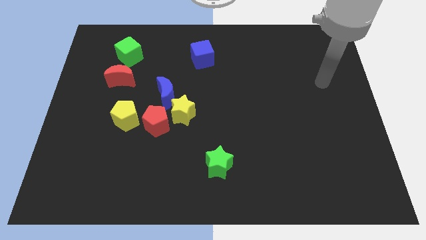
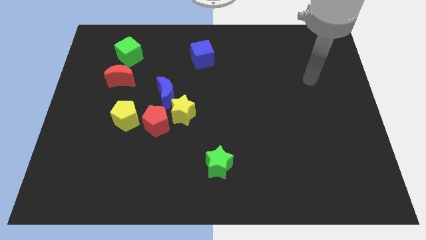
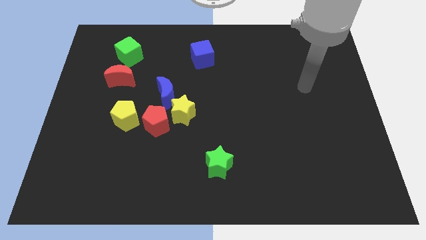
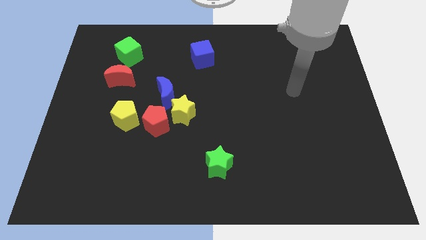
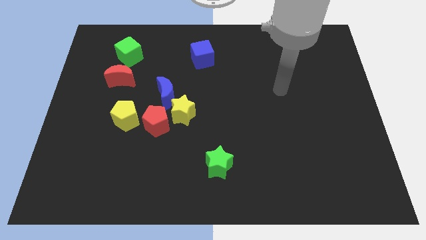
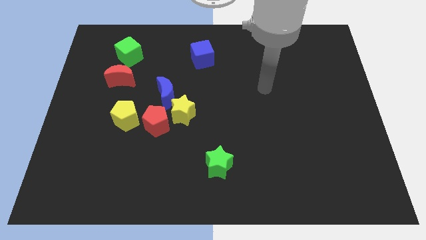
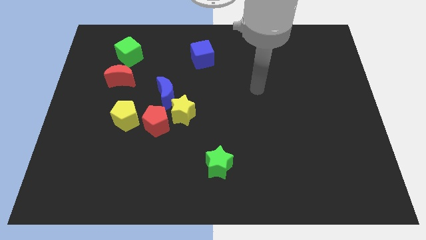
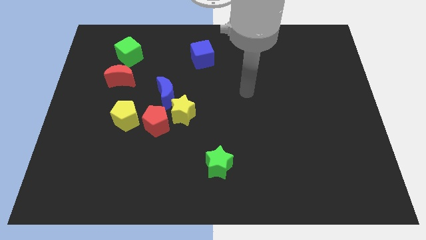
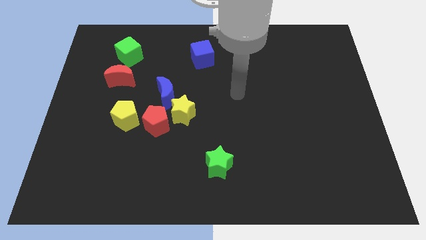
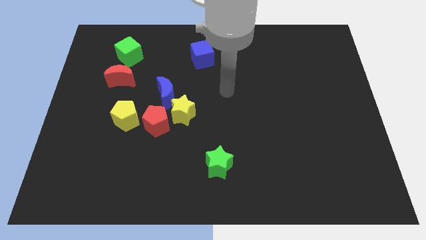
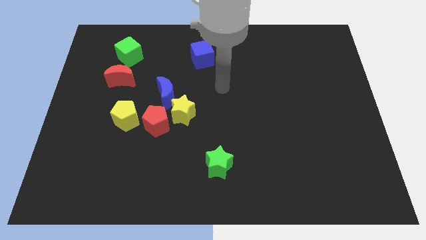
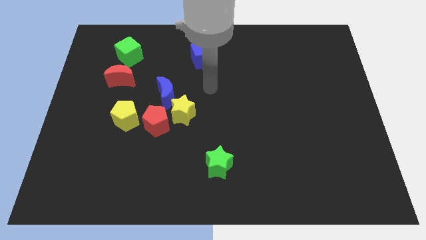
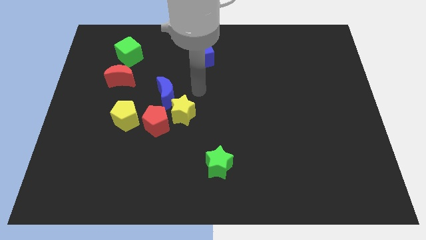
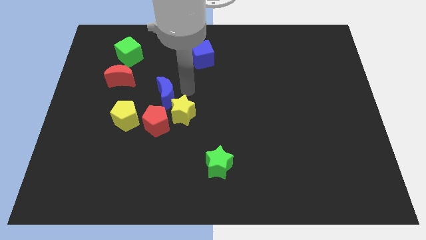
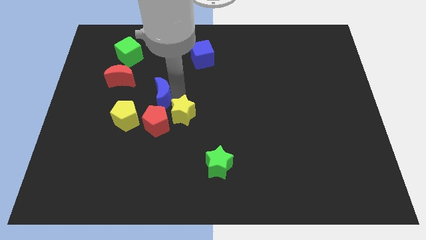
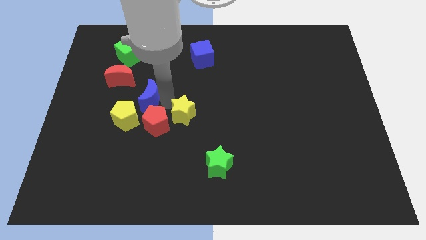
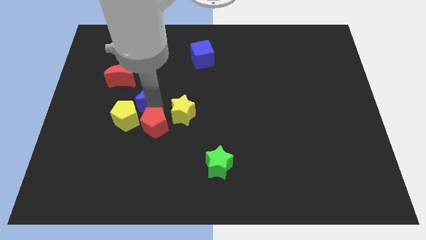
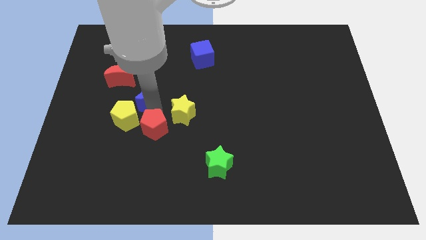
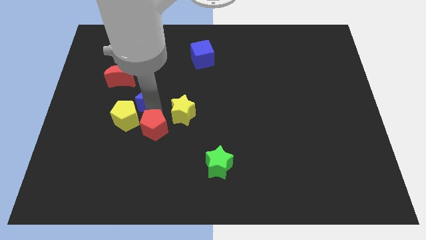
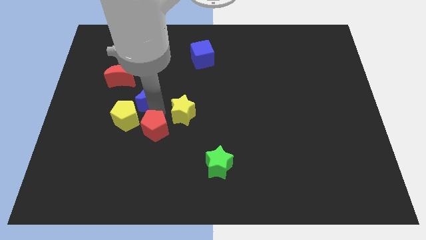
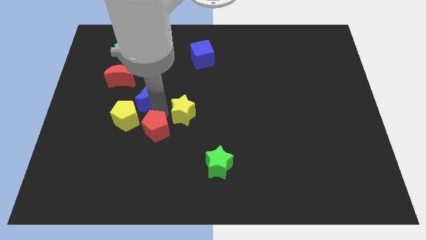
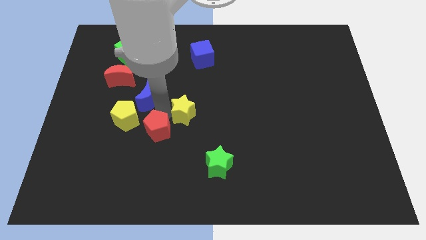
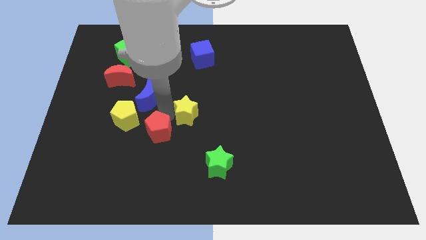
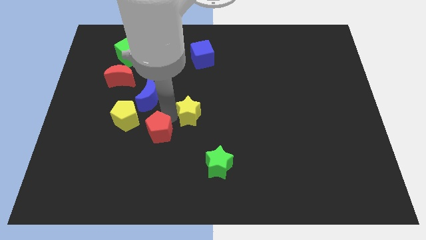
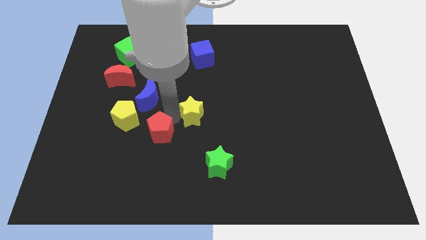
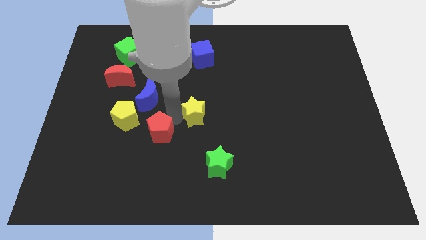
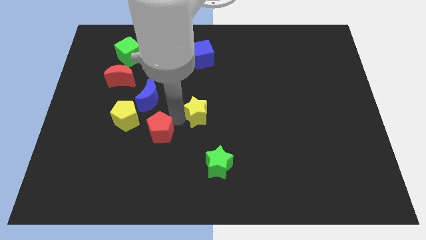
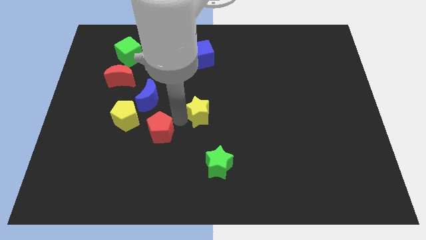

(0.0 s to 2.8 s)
move the yellow star away from the red pentagon and blue moon

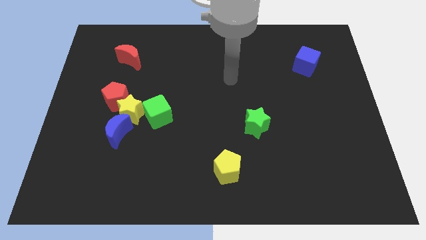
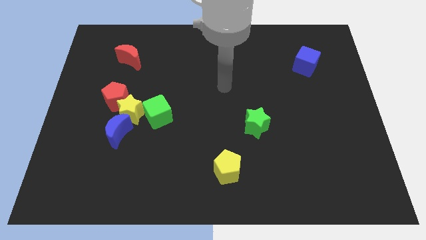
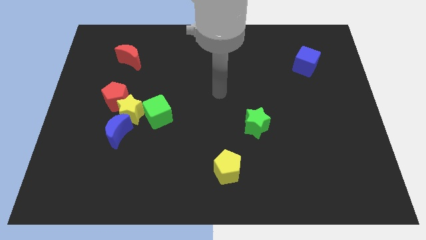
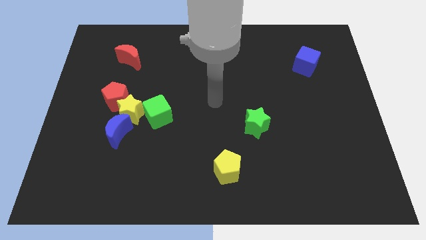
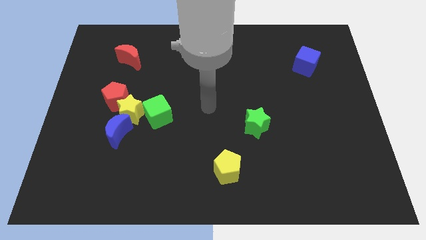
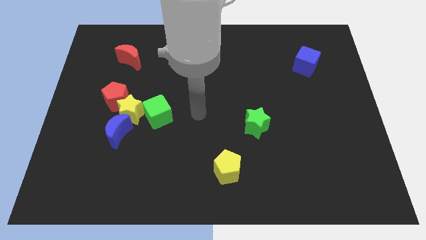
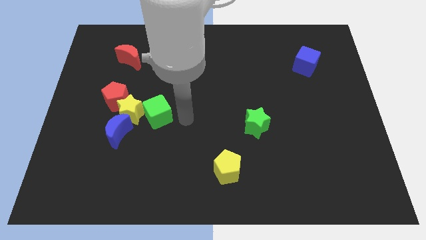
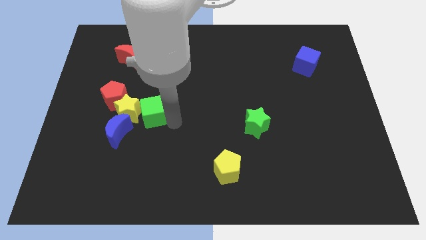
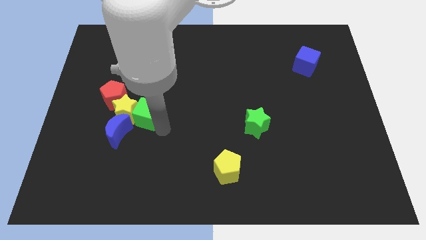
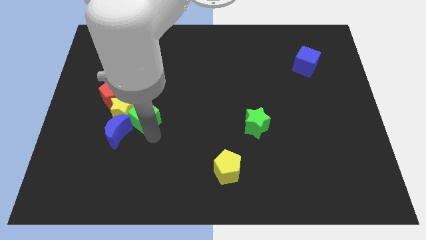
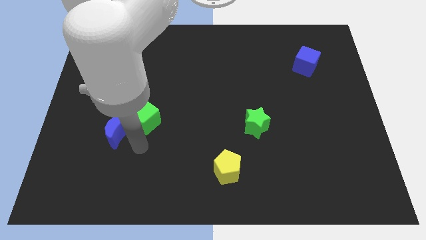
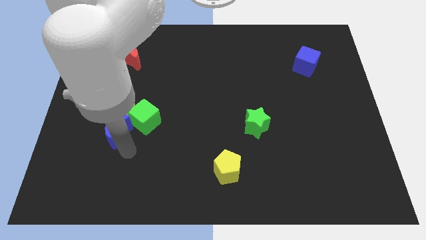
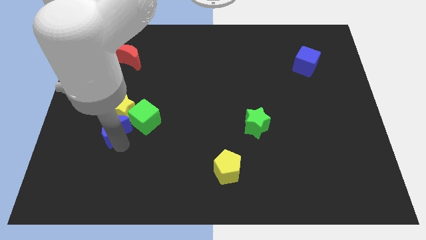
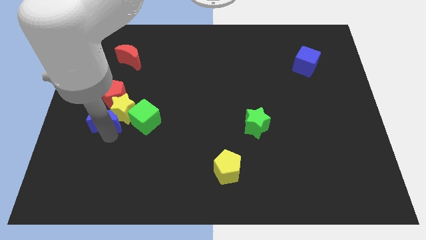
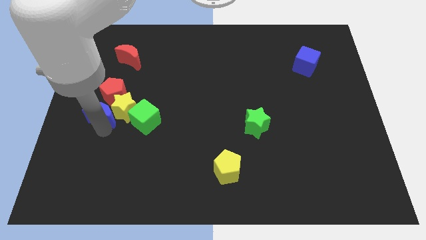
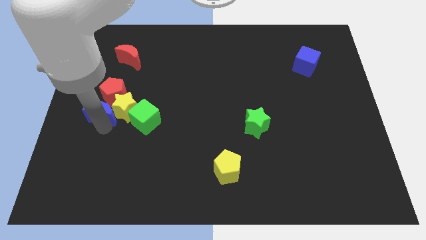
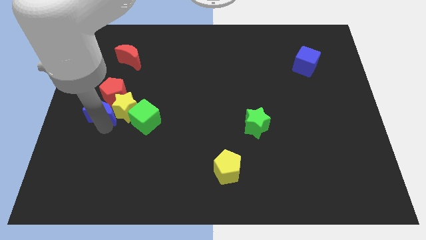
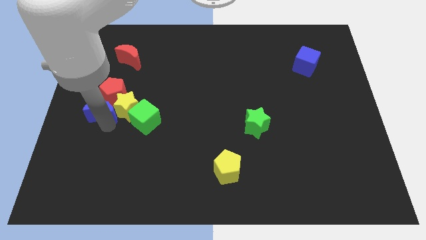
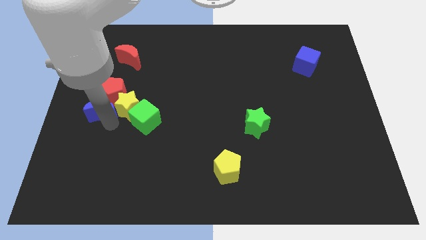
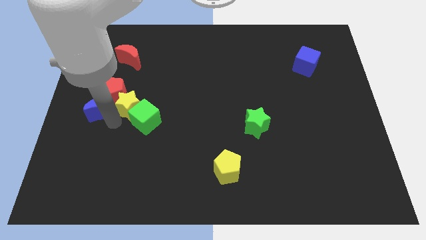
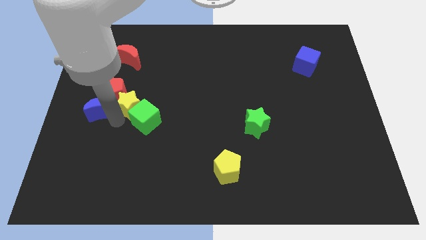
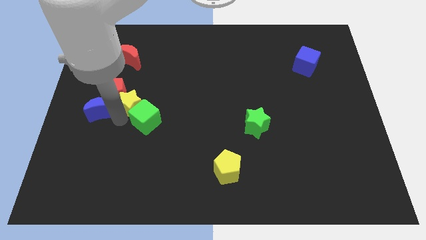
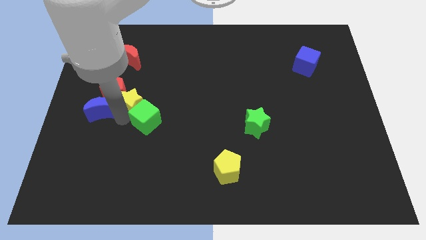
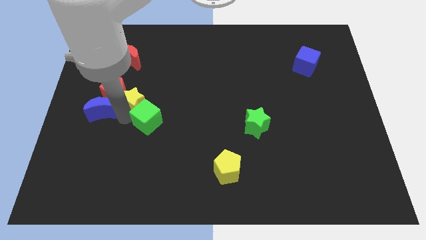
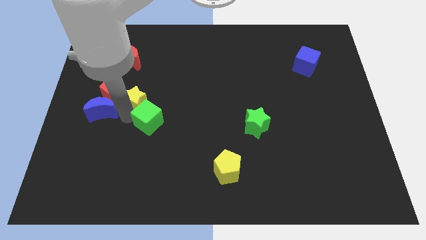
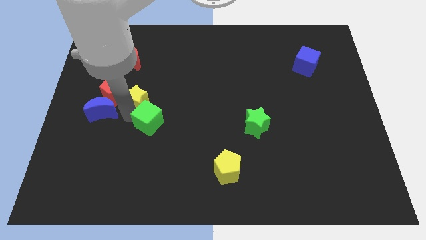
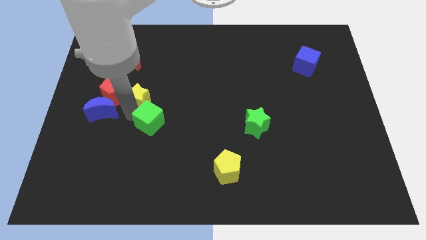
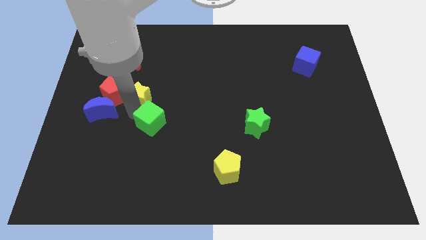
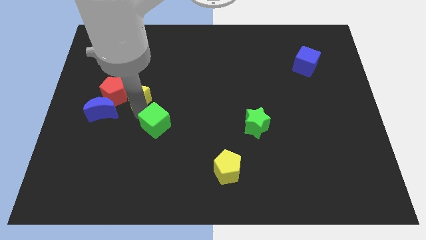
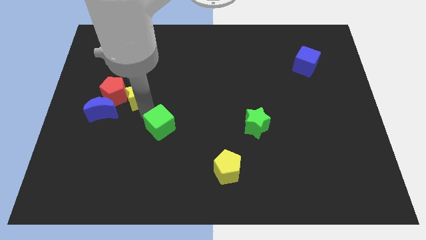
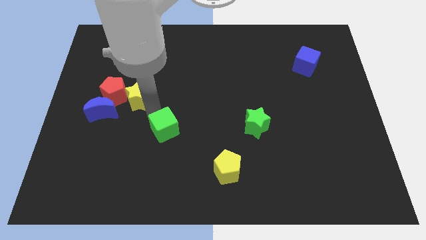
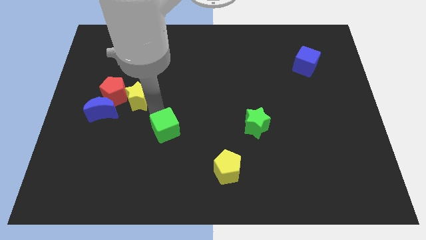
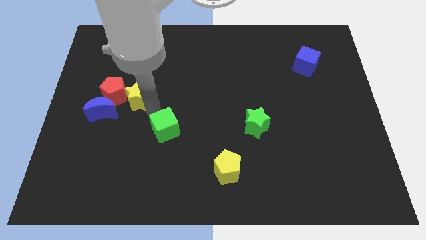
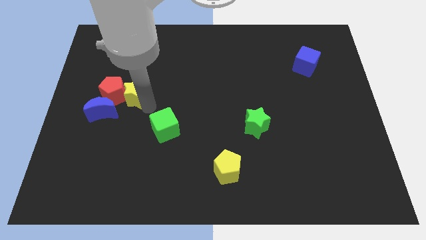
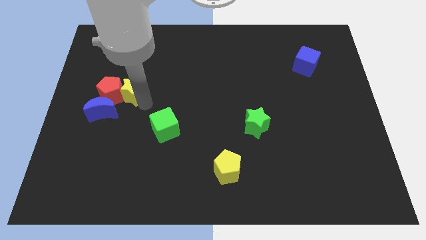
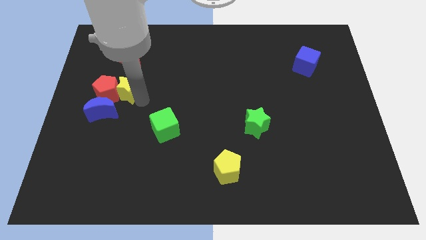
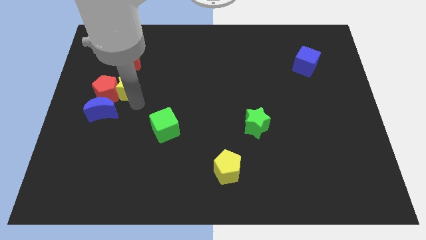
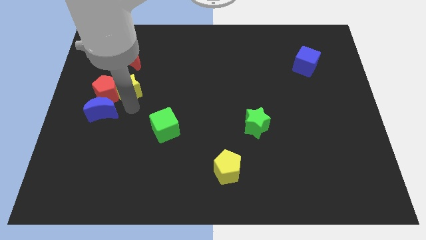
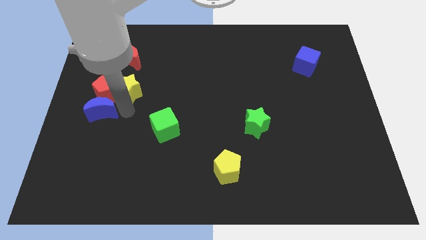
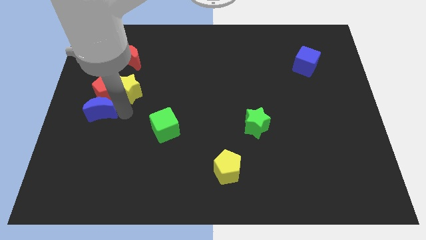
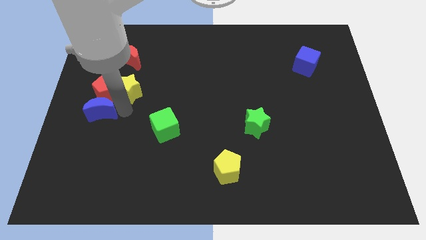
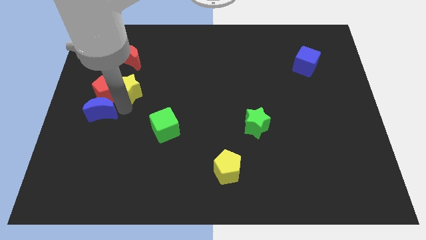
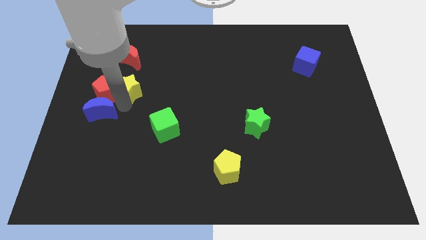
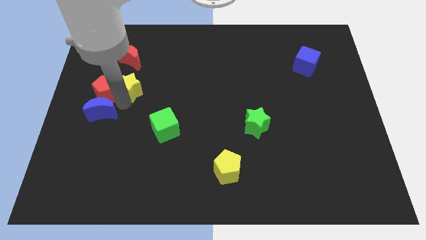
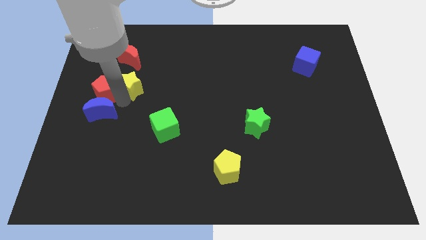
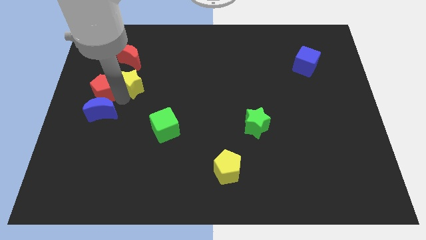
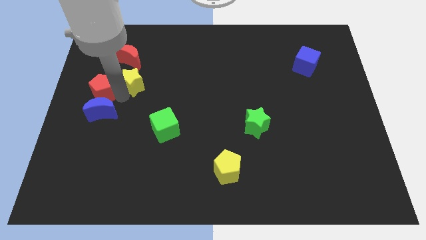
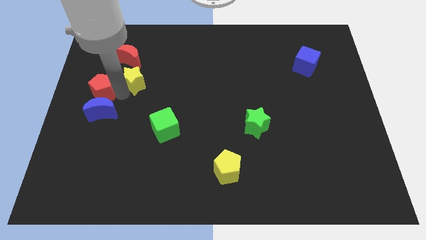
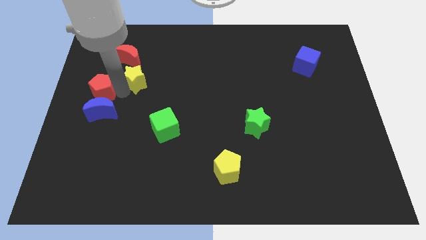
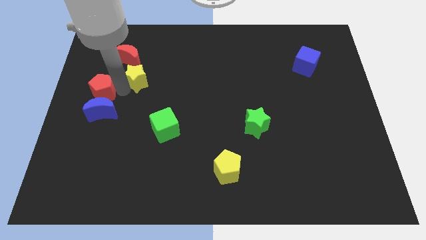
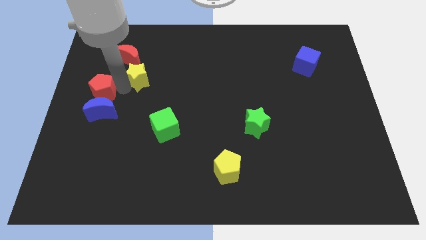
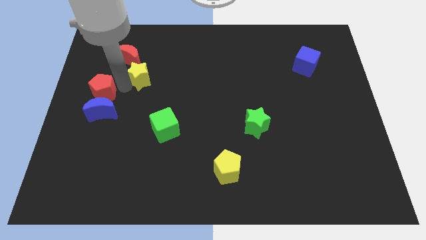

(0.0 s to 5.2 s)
move the yellow star away from the red pentagon, blue moon, and green cube

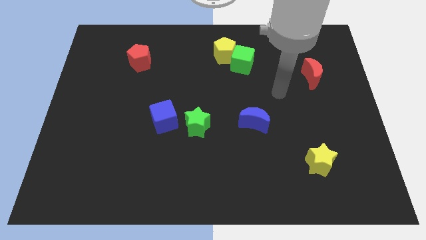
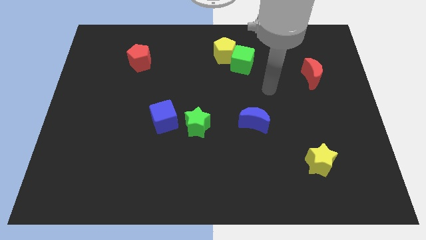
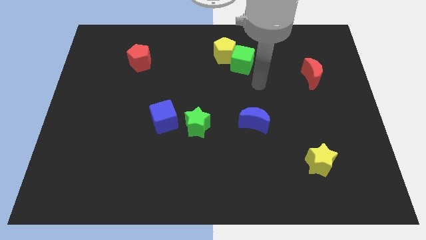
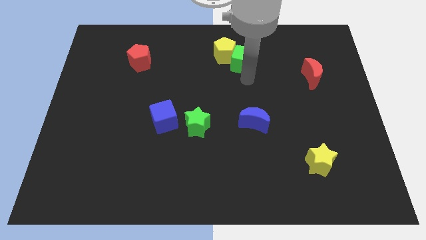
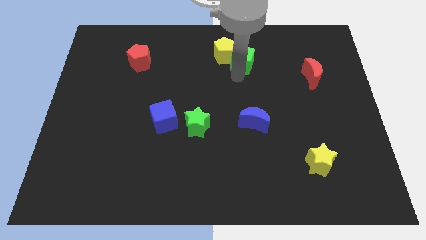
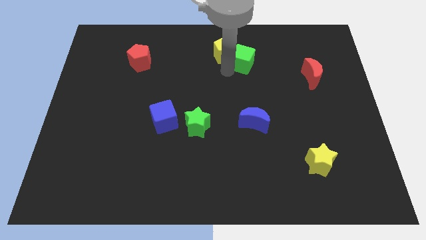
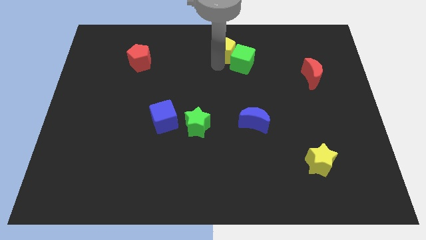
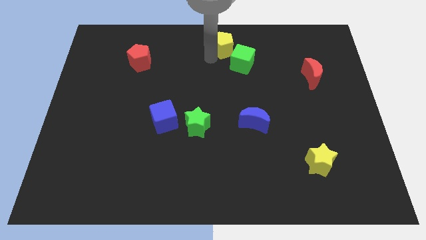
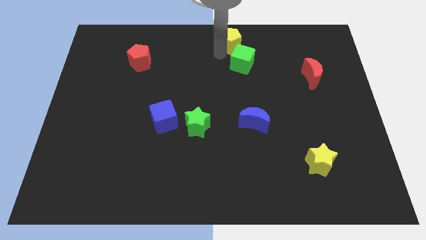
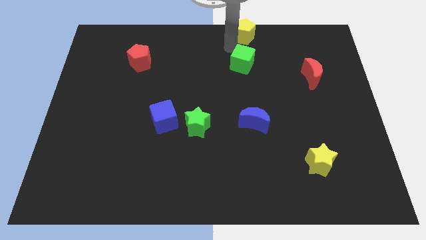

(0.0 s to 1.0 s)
pull the green cube apart from the yellow pentagon

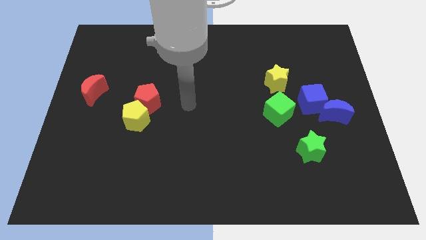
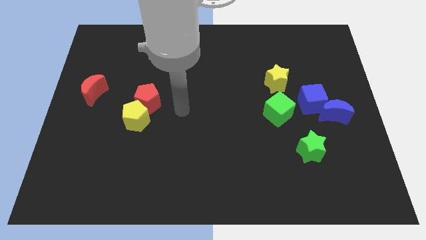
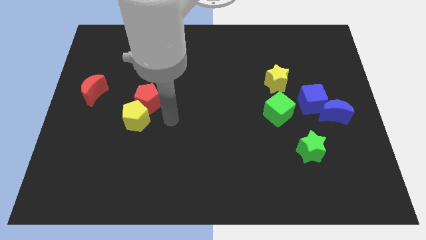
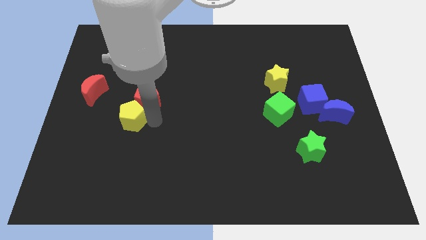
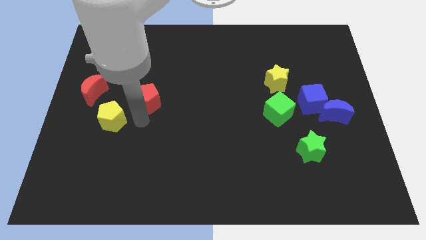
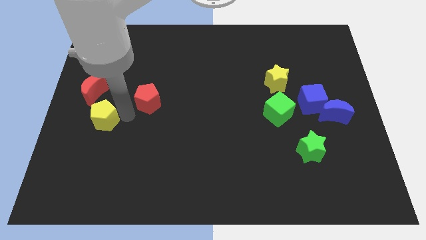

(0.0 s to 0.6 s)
separate the red pentagon from the yellow pentagon
